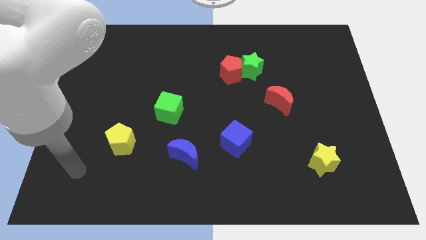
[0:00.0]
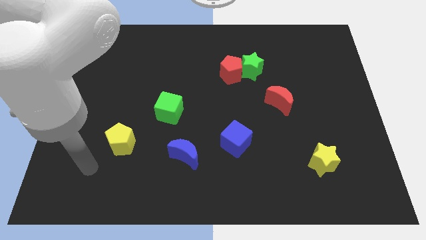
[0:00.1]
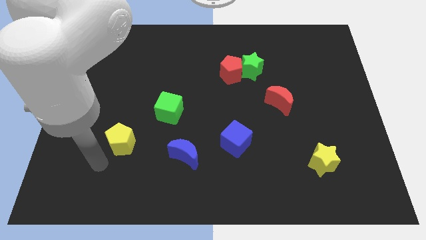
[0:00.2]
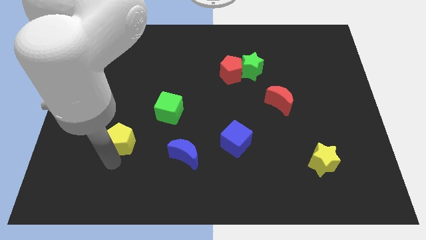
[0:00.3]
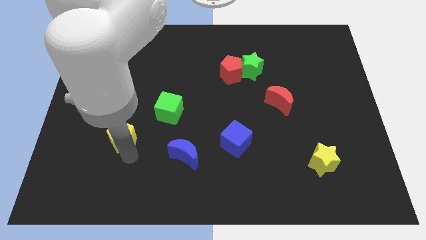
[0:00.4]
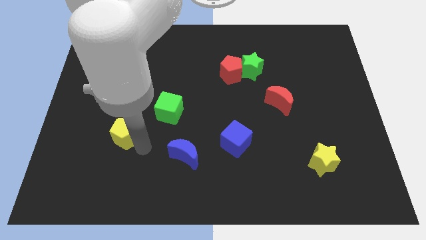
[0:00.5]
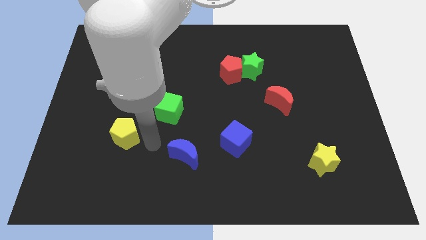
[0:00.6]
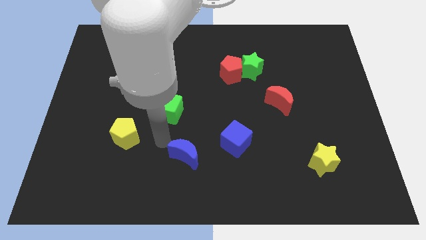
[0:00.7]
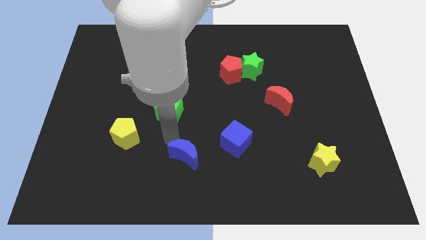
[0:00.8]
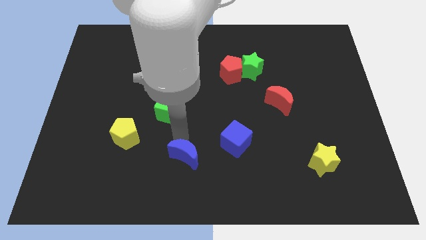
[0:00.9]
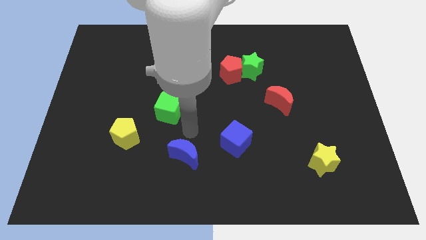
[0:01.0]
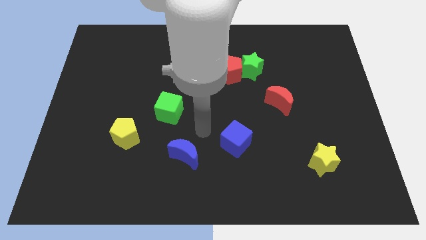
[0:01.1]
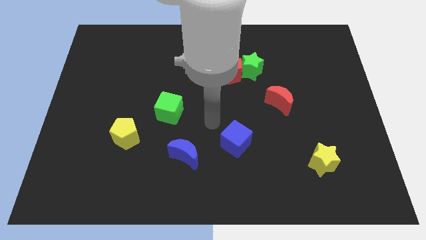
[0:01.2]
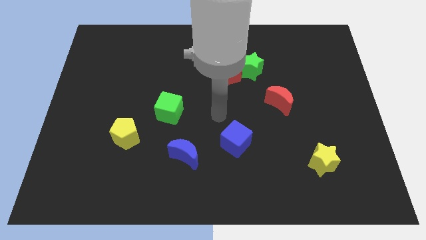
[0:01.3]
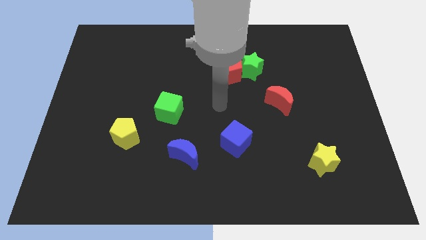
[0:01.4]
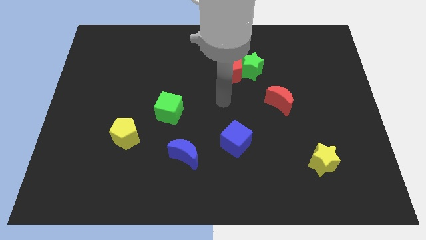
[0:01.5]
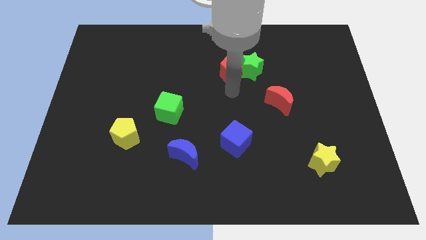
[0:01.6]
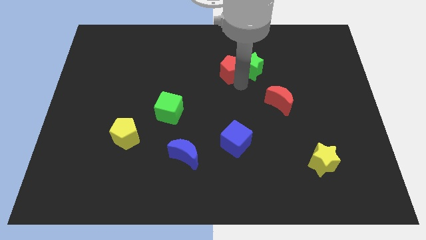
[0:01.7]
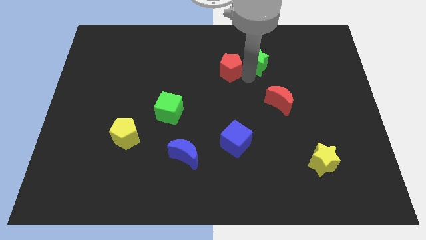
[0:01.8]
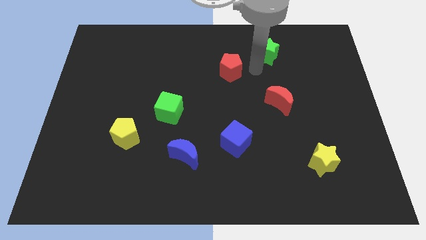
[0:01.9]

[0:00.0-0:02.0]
pull the red pentagon apart from the green star

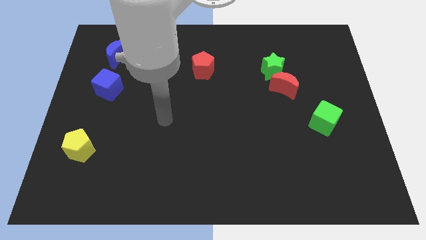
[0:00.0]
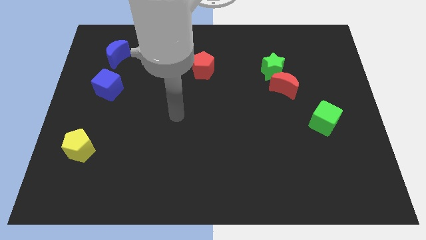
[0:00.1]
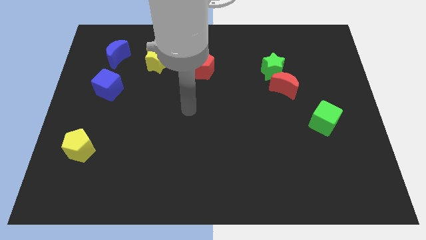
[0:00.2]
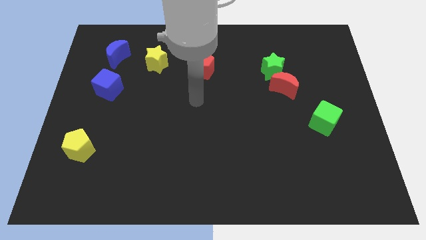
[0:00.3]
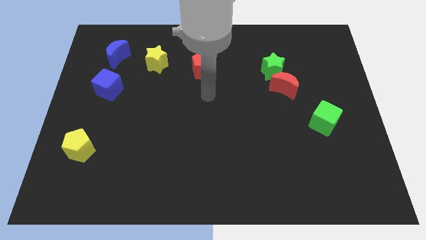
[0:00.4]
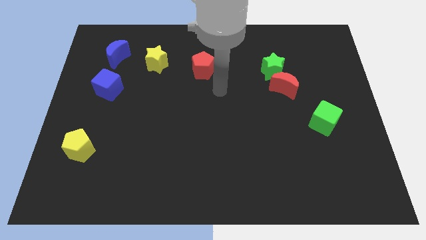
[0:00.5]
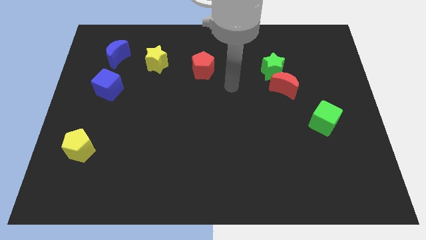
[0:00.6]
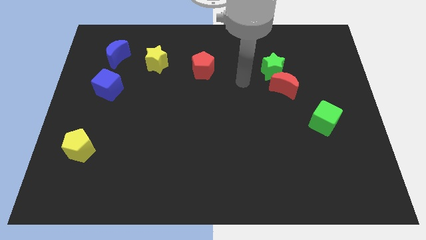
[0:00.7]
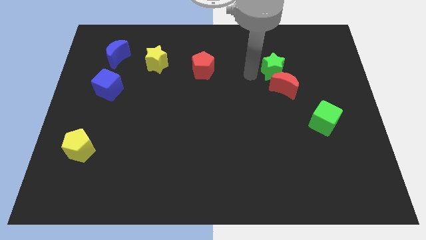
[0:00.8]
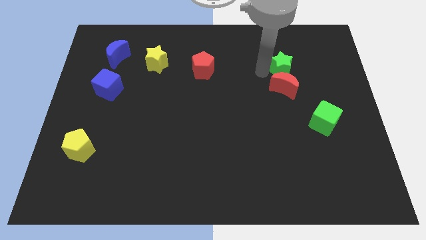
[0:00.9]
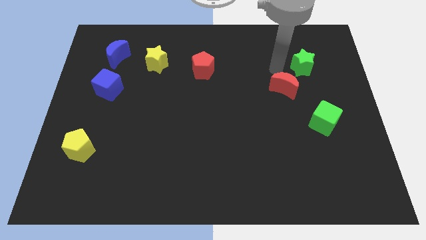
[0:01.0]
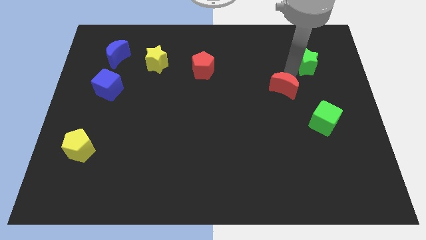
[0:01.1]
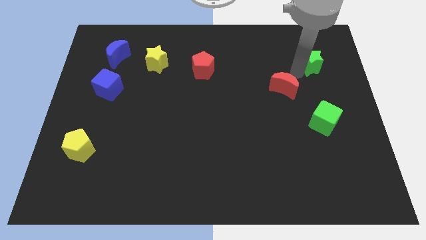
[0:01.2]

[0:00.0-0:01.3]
separate the red moon from the green star

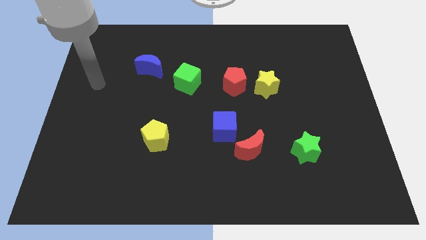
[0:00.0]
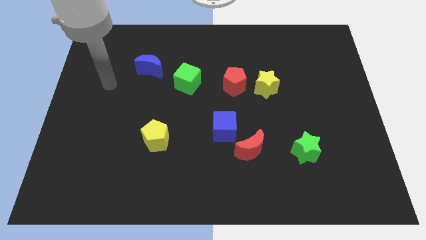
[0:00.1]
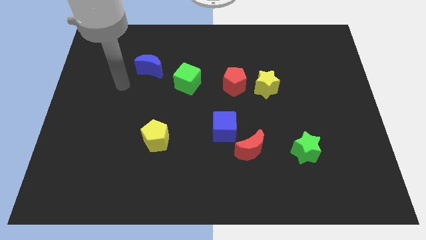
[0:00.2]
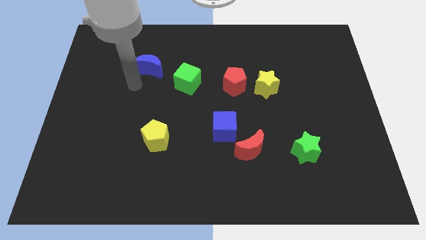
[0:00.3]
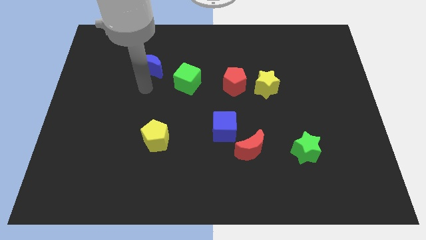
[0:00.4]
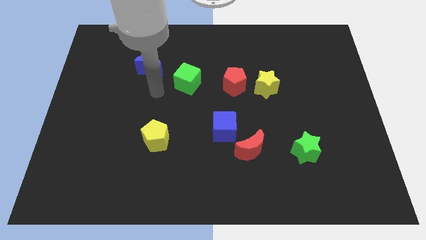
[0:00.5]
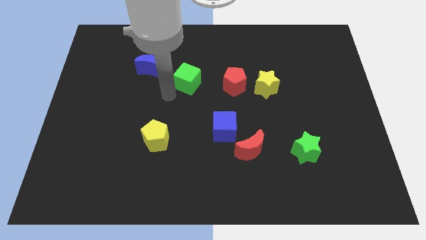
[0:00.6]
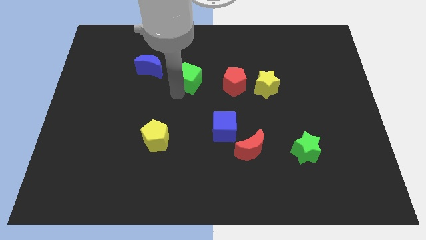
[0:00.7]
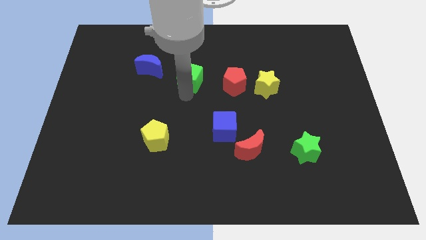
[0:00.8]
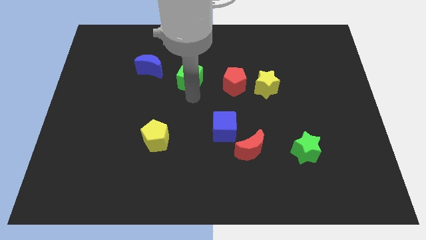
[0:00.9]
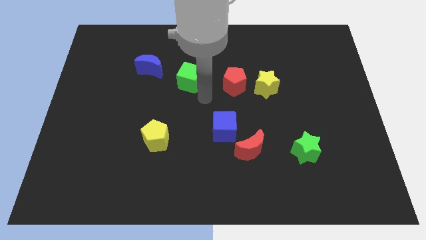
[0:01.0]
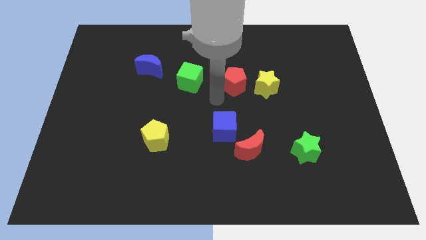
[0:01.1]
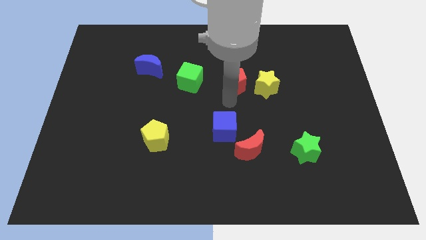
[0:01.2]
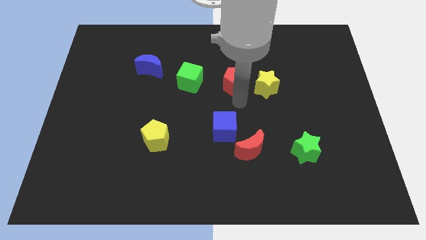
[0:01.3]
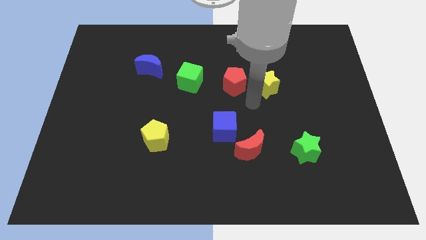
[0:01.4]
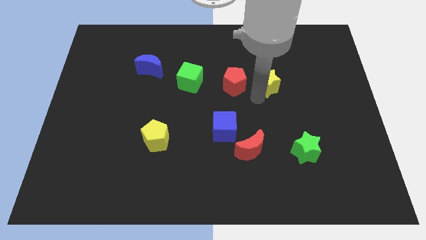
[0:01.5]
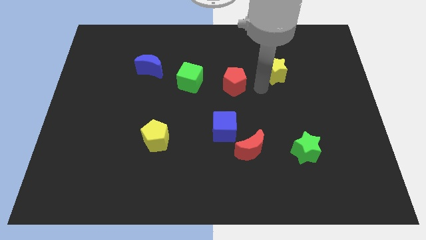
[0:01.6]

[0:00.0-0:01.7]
separate the red pentagon from the yellow star

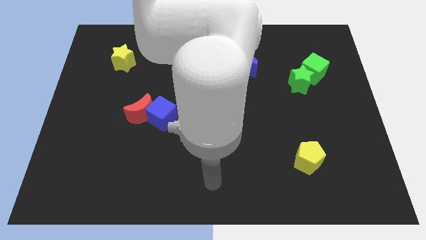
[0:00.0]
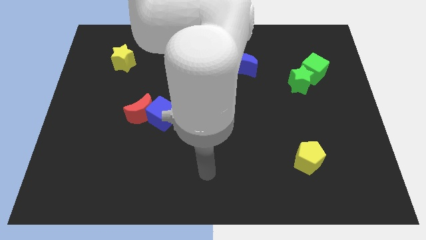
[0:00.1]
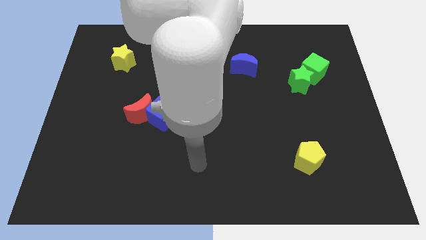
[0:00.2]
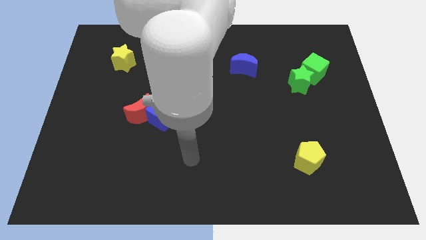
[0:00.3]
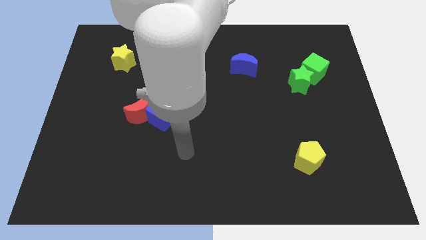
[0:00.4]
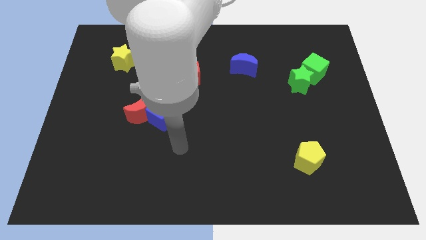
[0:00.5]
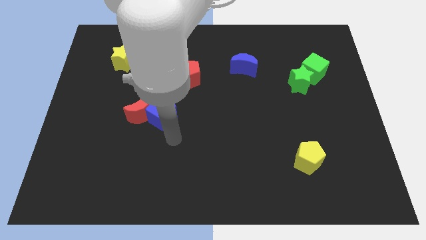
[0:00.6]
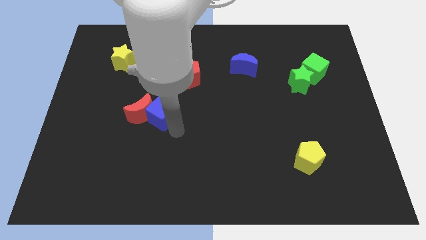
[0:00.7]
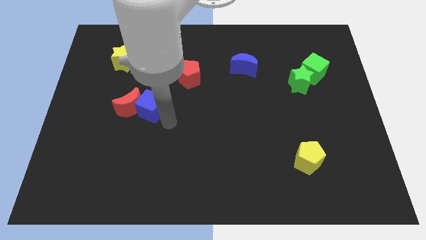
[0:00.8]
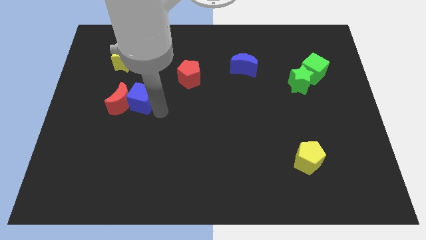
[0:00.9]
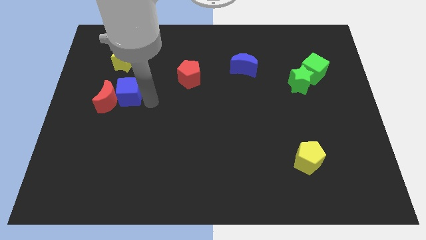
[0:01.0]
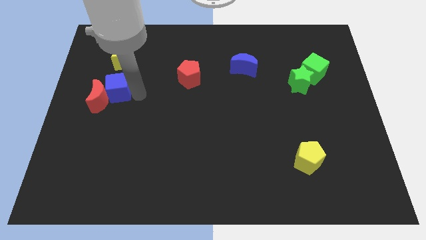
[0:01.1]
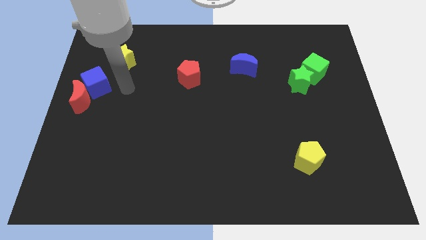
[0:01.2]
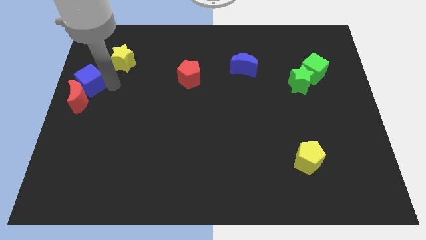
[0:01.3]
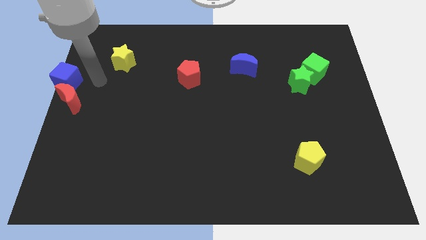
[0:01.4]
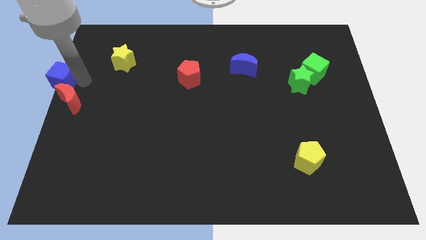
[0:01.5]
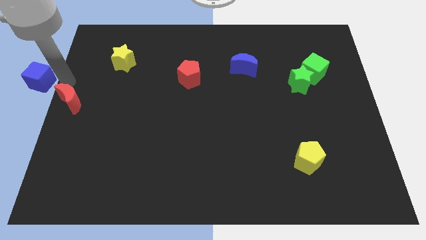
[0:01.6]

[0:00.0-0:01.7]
move the red moon away from the blue cube

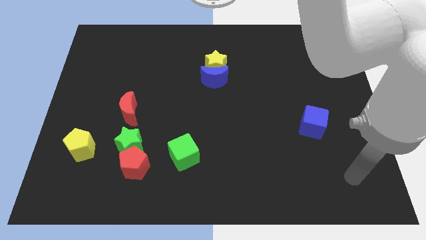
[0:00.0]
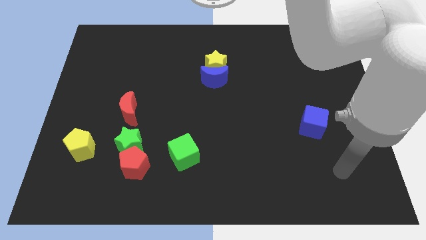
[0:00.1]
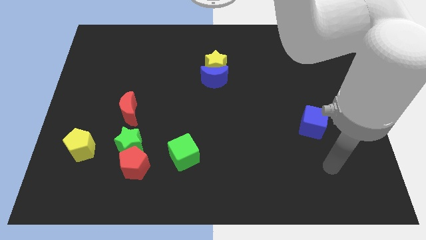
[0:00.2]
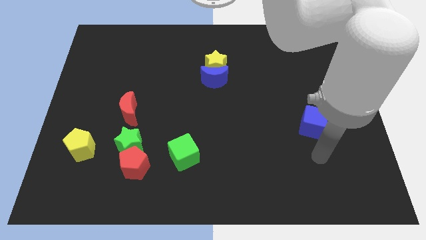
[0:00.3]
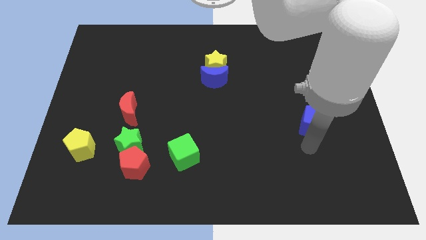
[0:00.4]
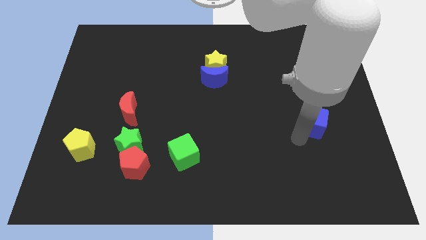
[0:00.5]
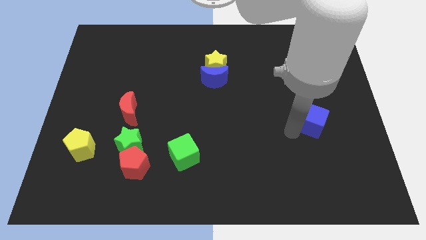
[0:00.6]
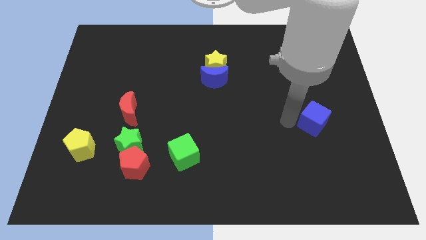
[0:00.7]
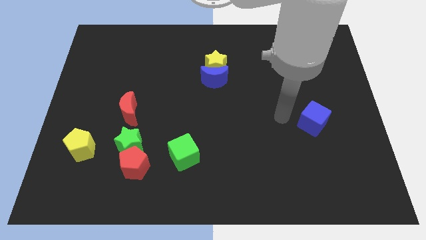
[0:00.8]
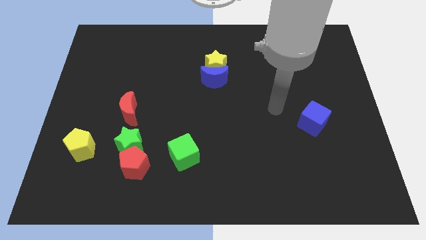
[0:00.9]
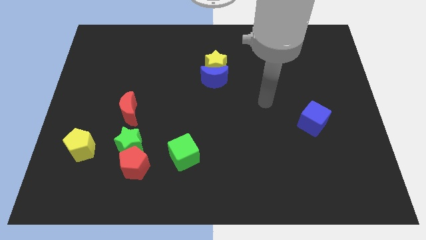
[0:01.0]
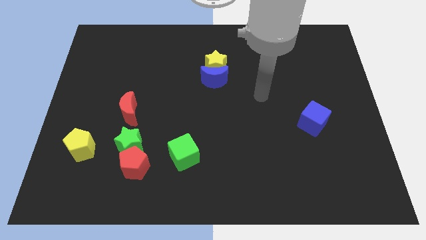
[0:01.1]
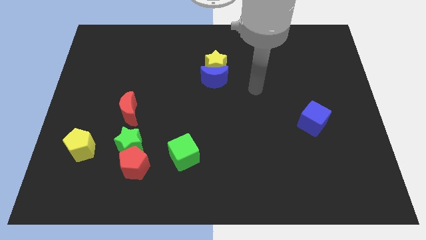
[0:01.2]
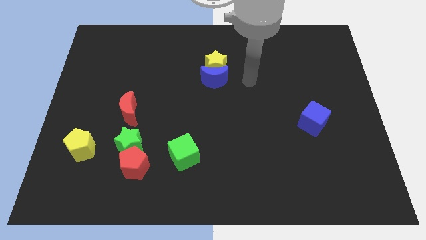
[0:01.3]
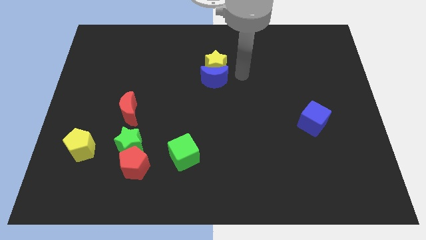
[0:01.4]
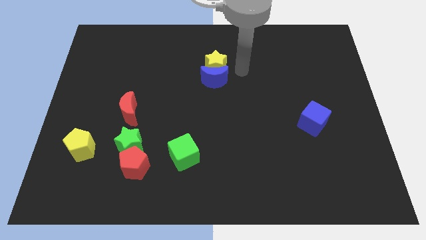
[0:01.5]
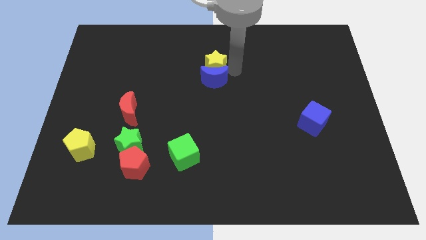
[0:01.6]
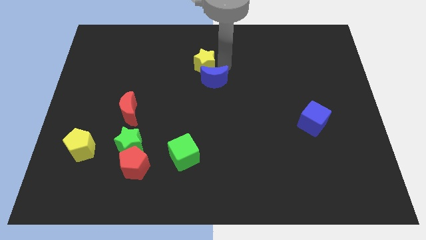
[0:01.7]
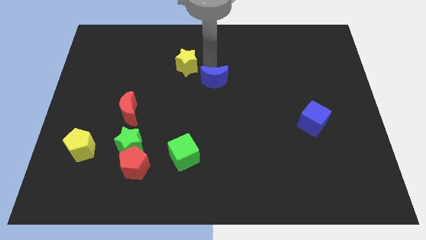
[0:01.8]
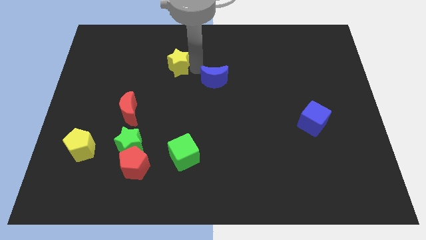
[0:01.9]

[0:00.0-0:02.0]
separate the blue moon from the yellow star

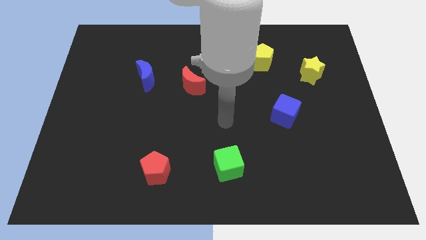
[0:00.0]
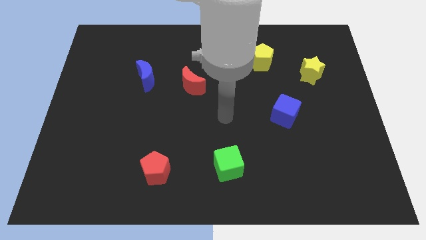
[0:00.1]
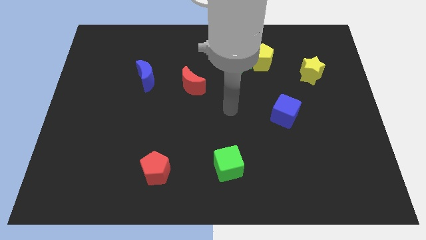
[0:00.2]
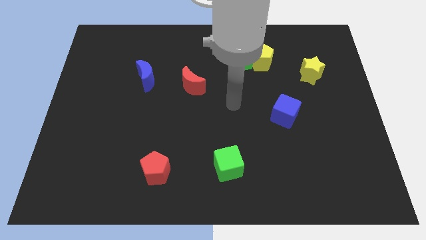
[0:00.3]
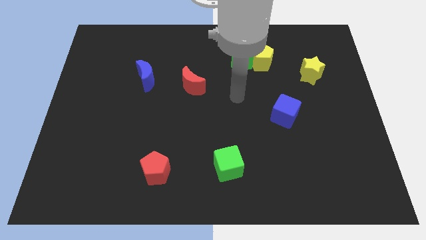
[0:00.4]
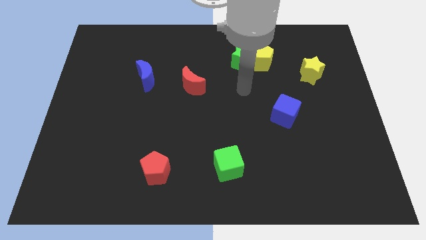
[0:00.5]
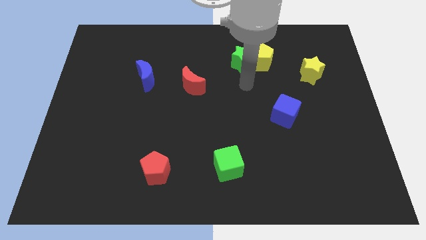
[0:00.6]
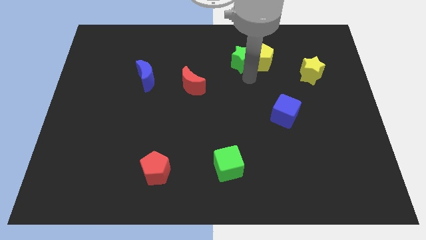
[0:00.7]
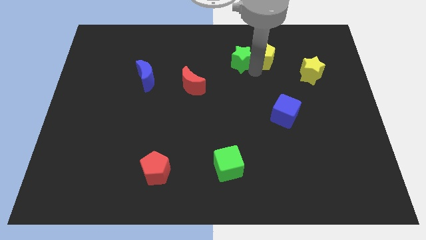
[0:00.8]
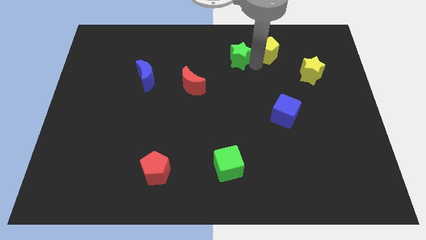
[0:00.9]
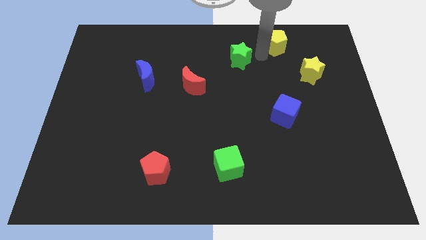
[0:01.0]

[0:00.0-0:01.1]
move the green star away from the yellow pentagon
